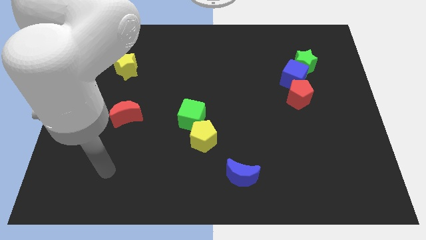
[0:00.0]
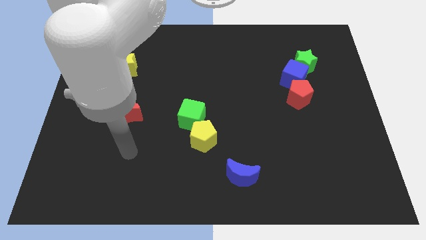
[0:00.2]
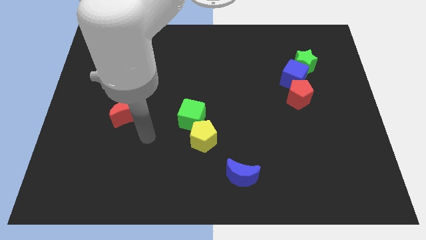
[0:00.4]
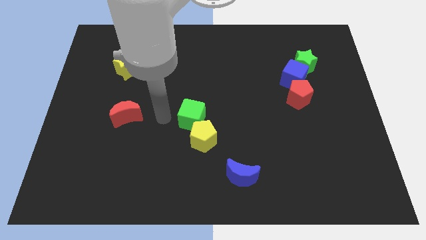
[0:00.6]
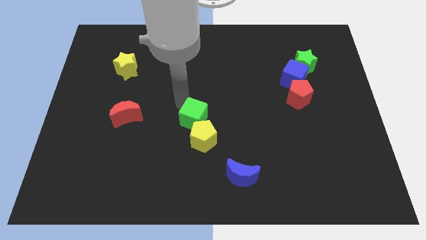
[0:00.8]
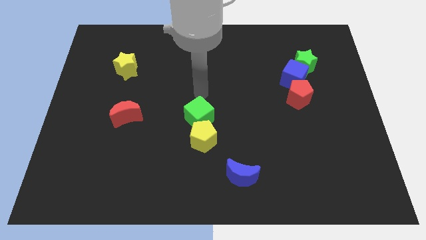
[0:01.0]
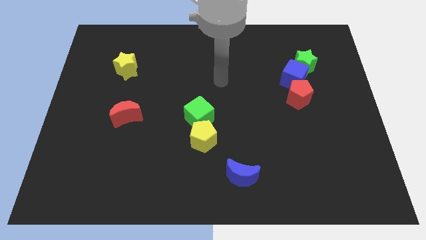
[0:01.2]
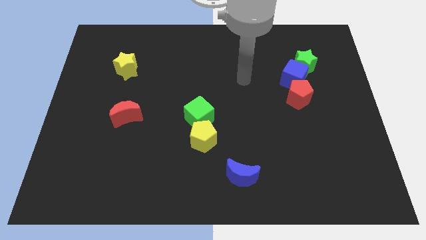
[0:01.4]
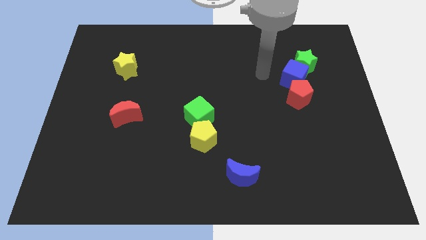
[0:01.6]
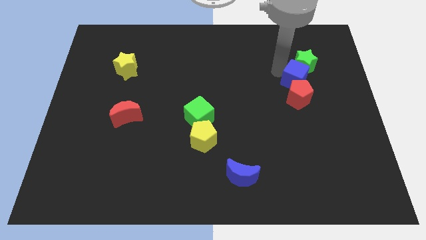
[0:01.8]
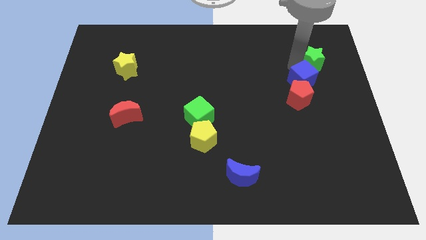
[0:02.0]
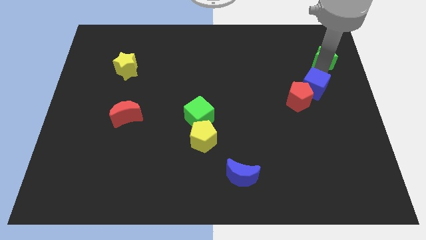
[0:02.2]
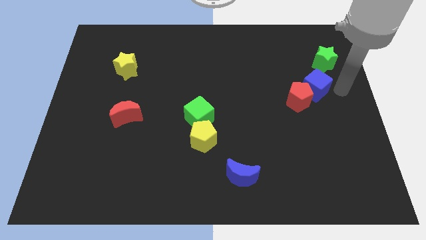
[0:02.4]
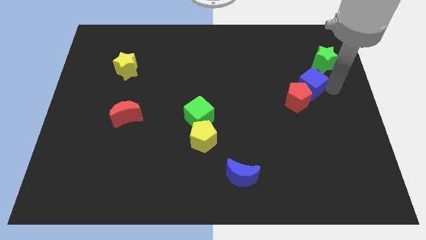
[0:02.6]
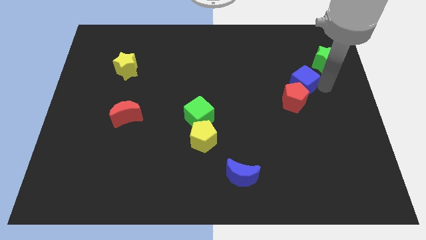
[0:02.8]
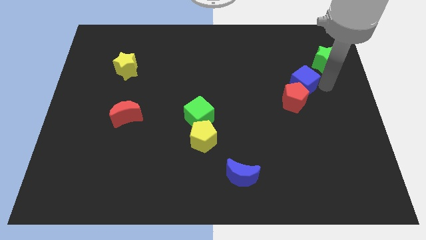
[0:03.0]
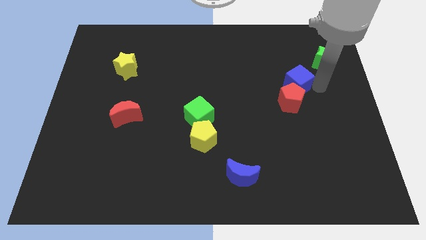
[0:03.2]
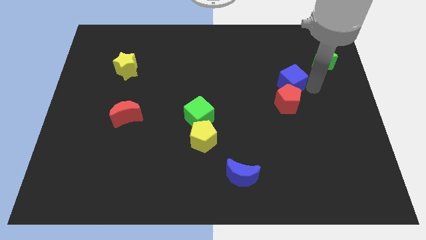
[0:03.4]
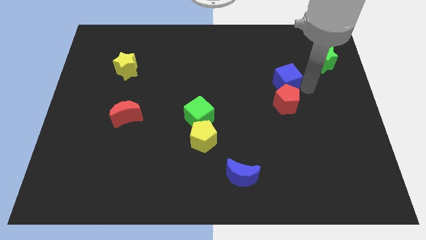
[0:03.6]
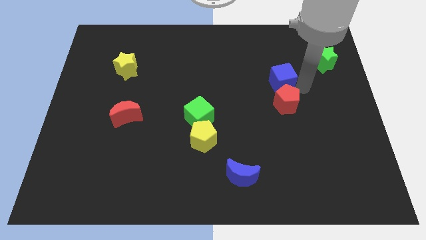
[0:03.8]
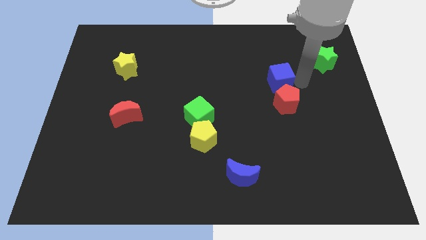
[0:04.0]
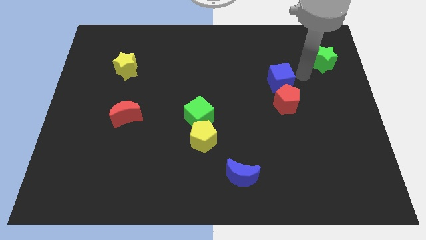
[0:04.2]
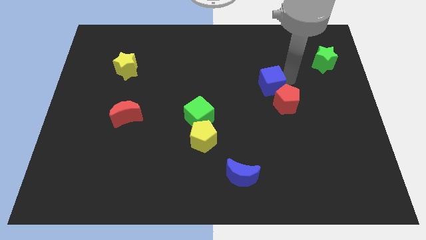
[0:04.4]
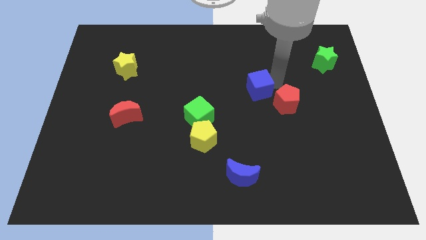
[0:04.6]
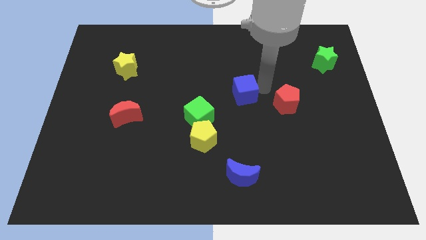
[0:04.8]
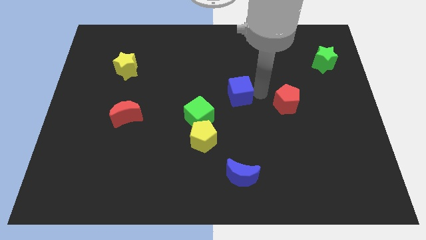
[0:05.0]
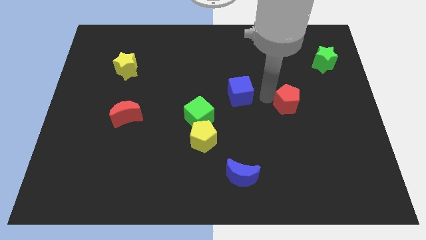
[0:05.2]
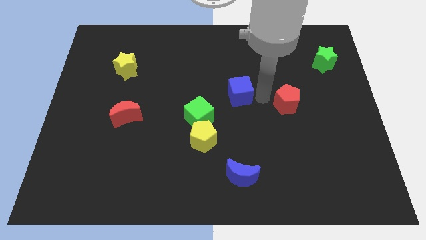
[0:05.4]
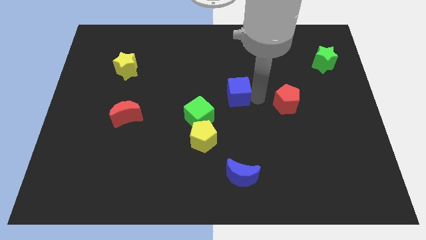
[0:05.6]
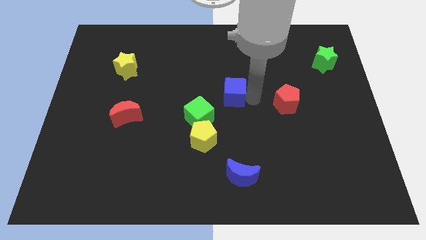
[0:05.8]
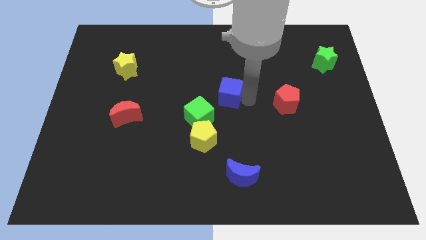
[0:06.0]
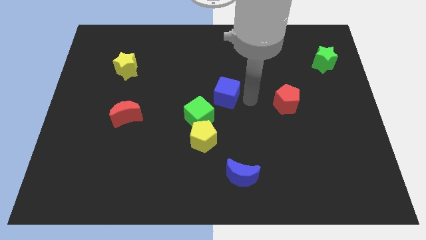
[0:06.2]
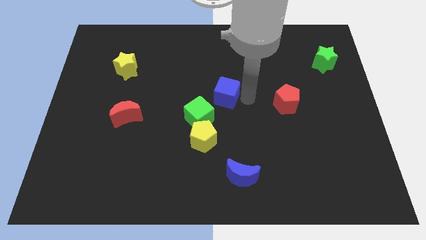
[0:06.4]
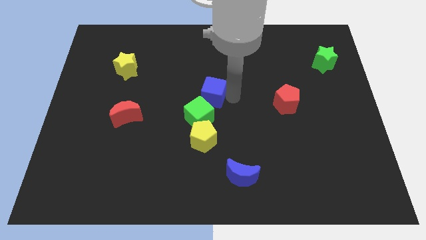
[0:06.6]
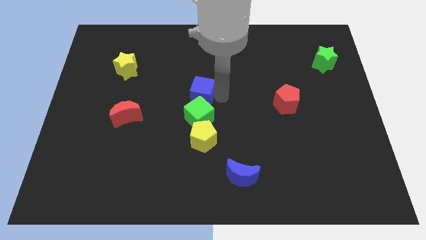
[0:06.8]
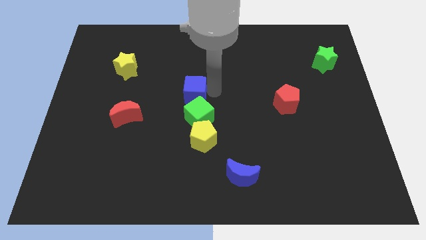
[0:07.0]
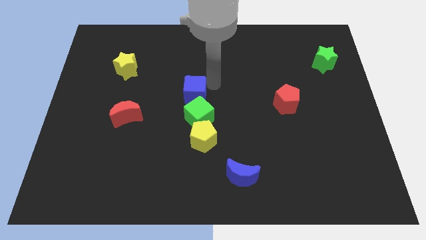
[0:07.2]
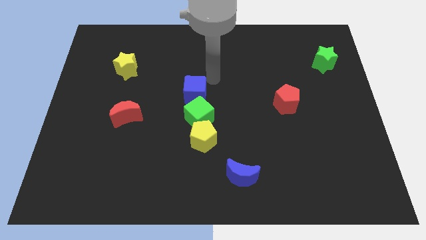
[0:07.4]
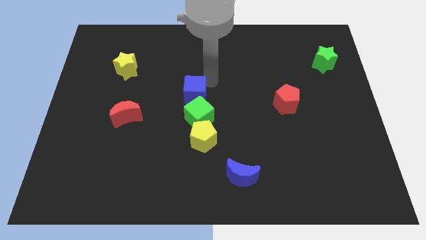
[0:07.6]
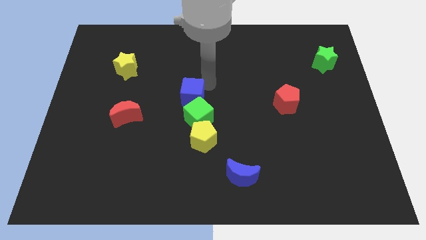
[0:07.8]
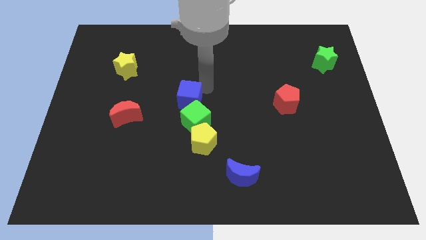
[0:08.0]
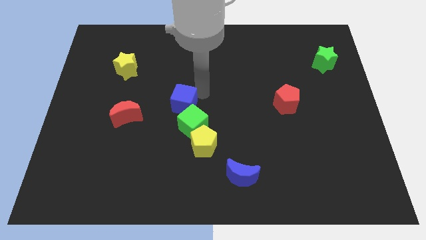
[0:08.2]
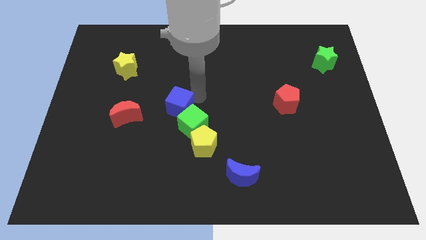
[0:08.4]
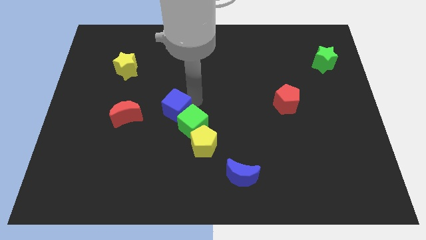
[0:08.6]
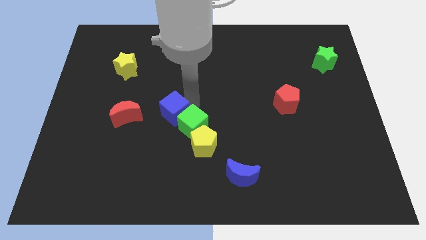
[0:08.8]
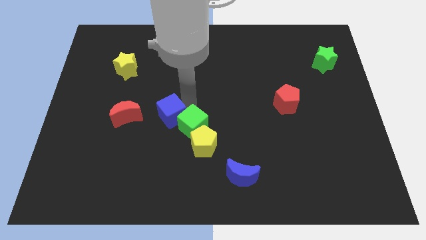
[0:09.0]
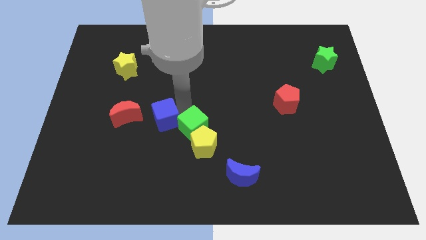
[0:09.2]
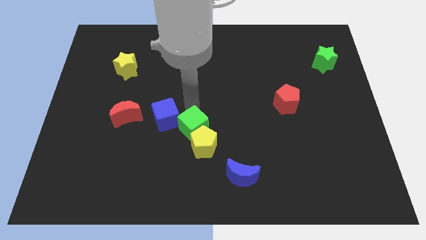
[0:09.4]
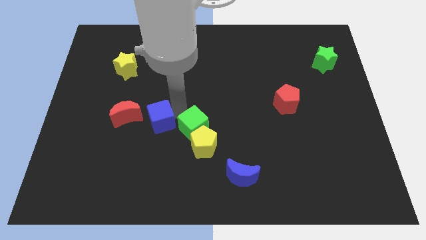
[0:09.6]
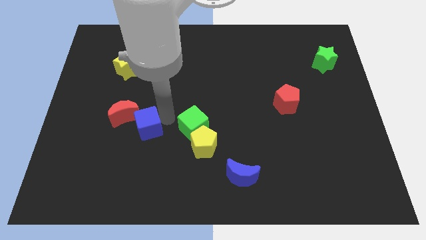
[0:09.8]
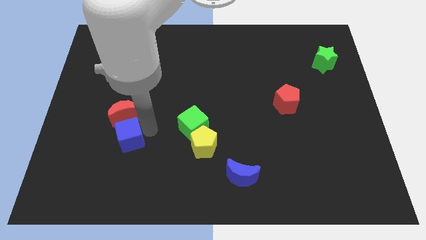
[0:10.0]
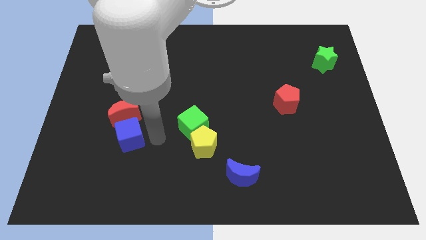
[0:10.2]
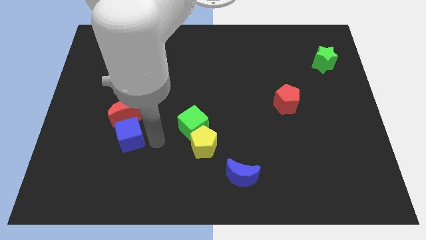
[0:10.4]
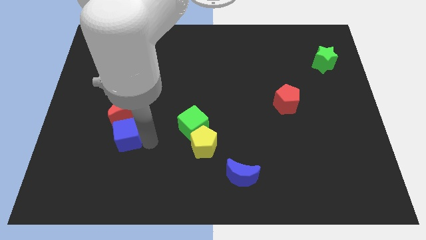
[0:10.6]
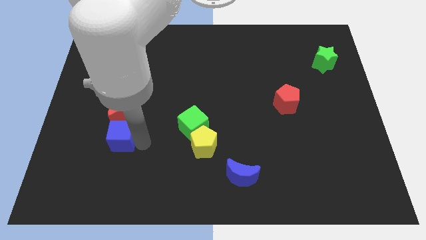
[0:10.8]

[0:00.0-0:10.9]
put the blue cube to the bottom left of the red moon

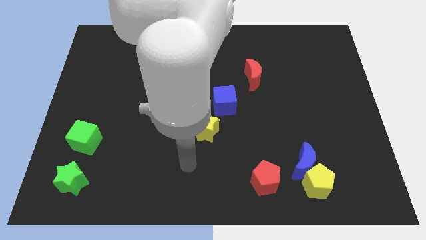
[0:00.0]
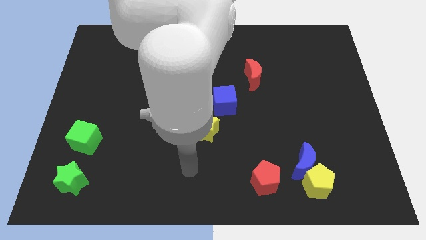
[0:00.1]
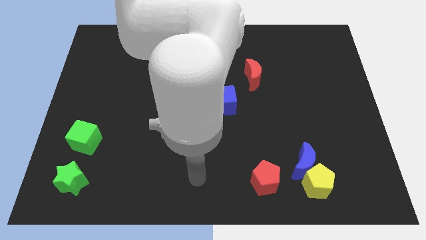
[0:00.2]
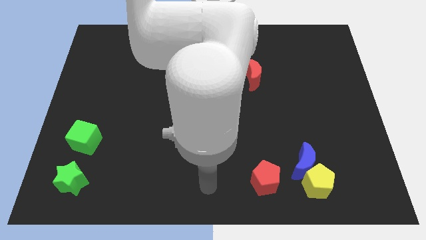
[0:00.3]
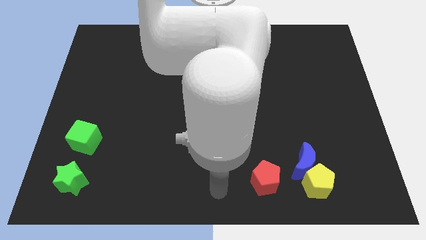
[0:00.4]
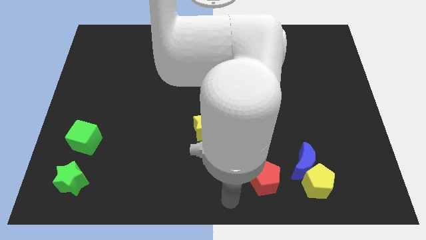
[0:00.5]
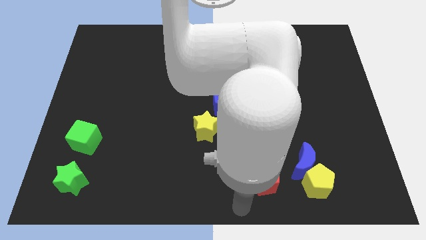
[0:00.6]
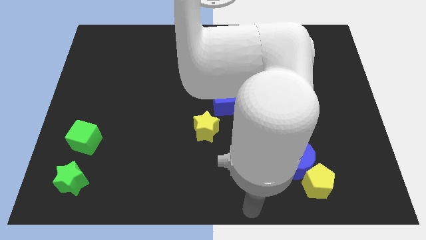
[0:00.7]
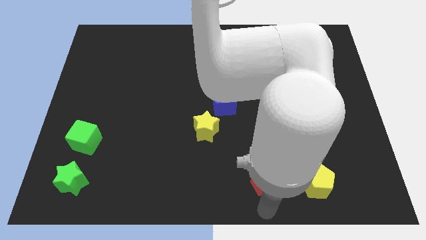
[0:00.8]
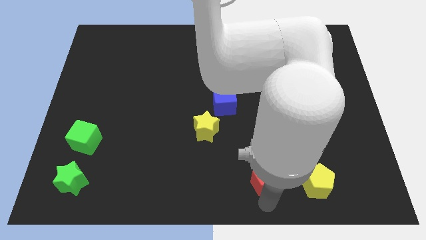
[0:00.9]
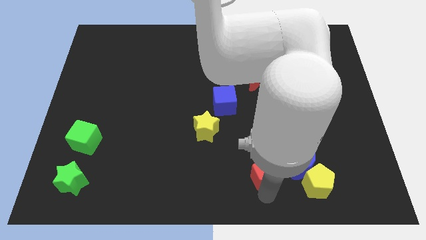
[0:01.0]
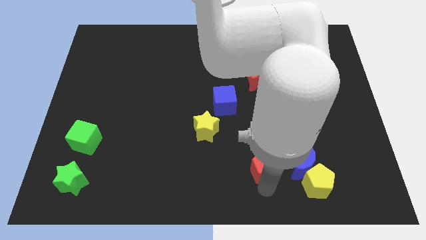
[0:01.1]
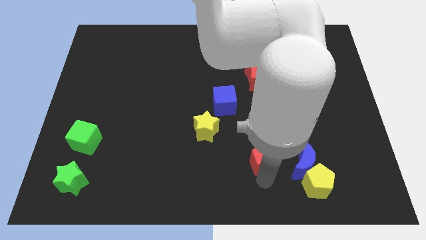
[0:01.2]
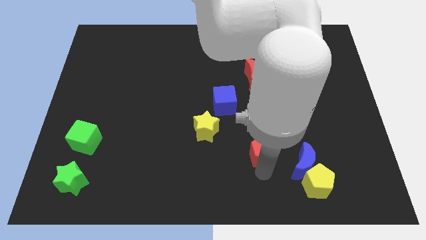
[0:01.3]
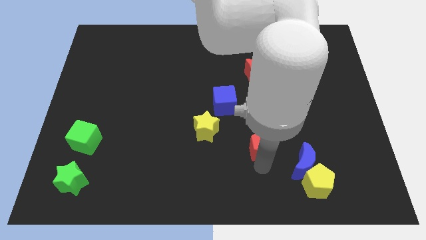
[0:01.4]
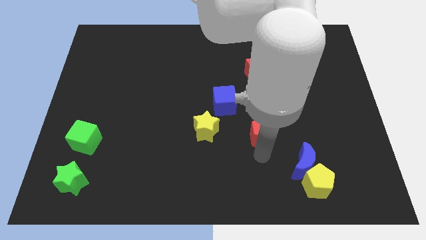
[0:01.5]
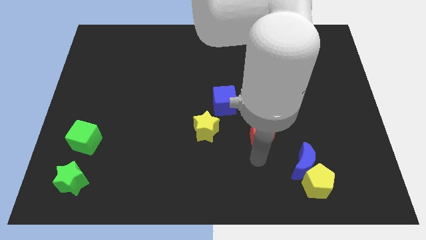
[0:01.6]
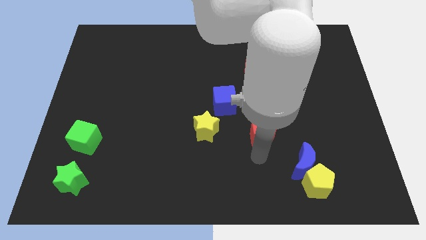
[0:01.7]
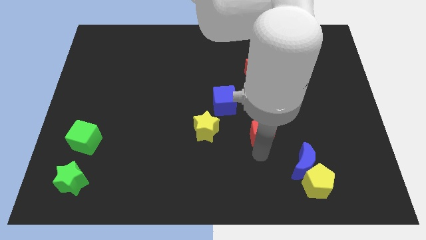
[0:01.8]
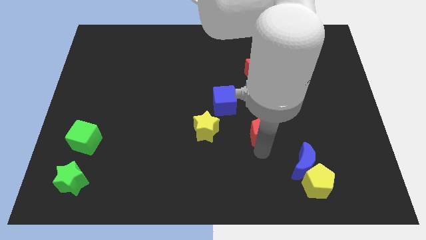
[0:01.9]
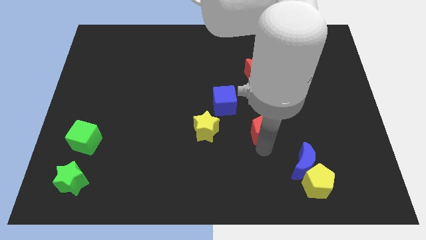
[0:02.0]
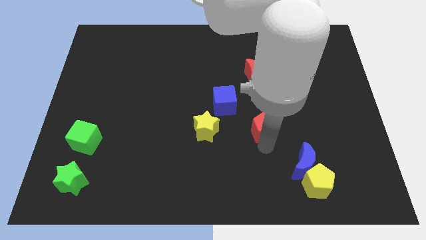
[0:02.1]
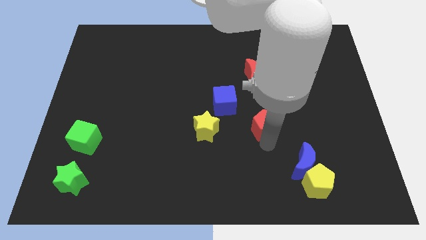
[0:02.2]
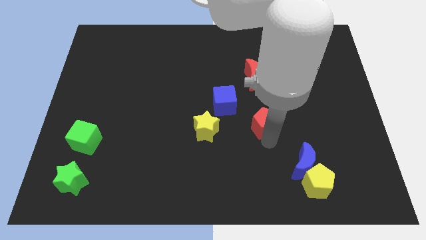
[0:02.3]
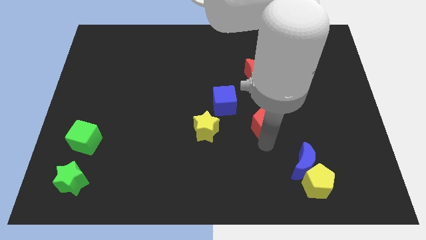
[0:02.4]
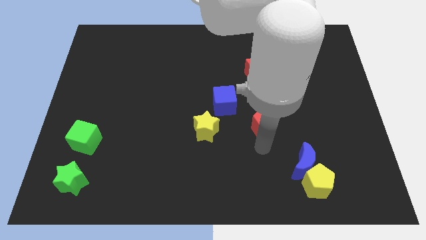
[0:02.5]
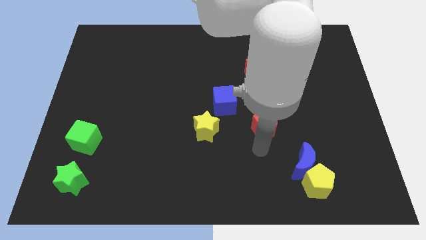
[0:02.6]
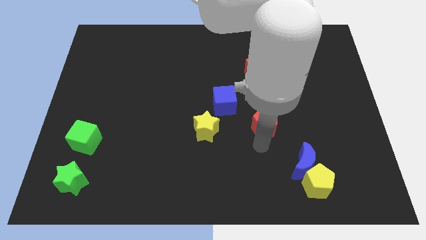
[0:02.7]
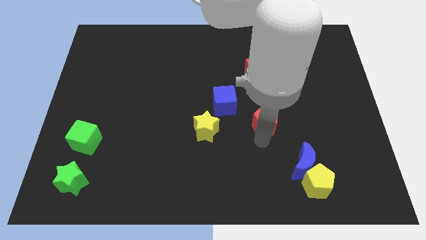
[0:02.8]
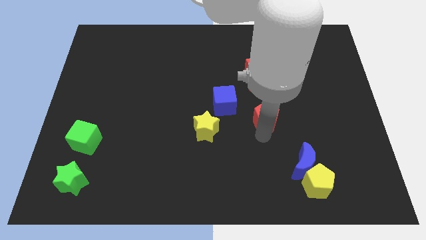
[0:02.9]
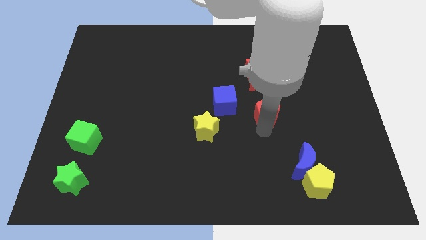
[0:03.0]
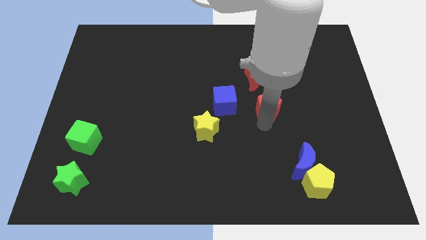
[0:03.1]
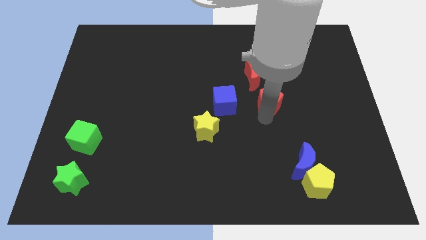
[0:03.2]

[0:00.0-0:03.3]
move the red pentagon diagonally down and to the right of the red moon
